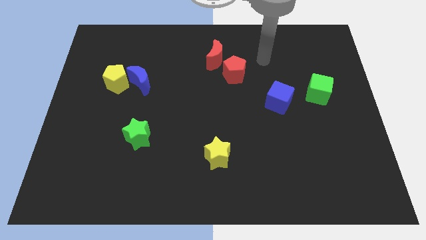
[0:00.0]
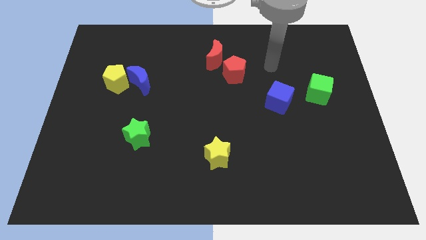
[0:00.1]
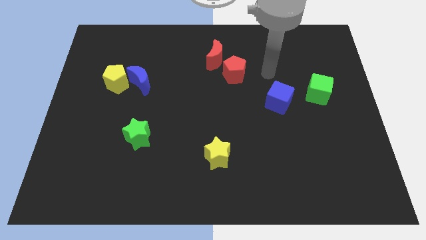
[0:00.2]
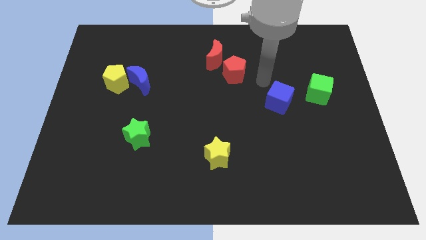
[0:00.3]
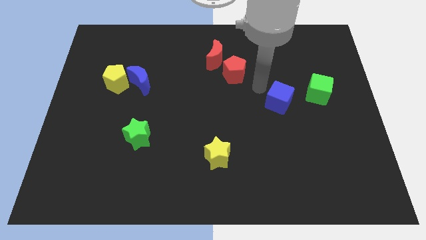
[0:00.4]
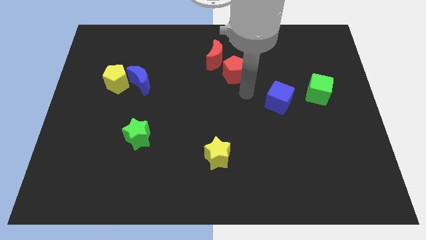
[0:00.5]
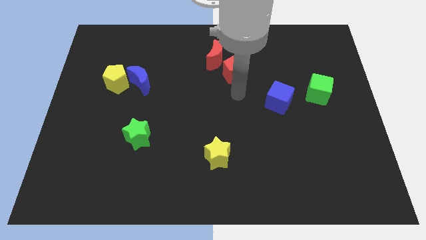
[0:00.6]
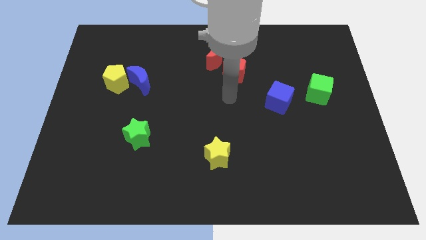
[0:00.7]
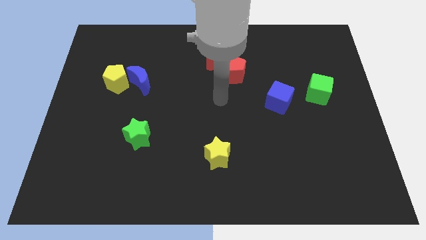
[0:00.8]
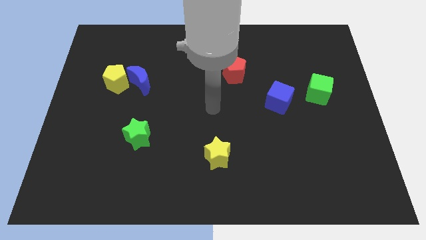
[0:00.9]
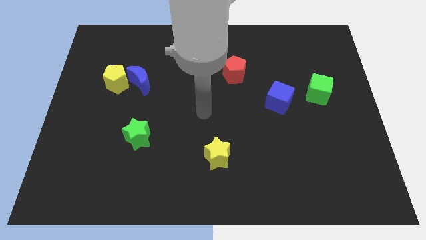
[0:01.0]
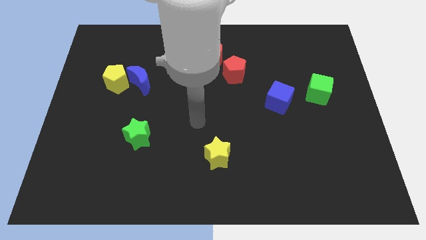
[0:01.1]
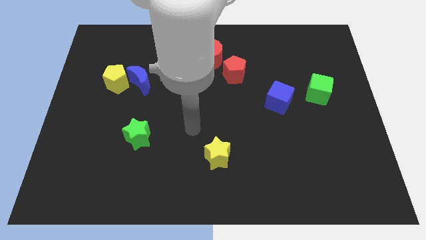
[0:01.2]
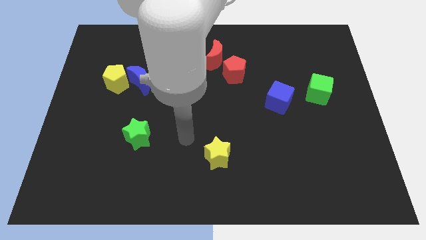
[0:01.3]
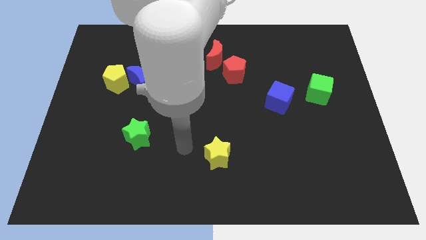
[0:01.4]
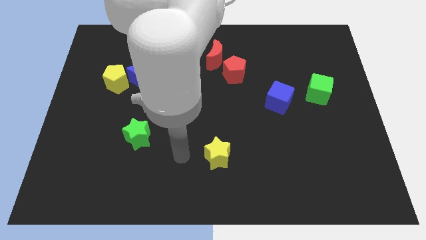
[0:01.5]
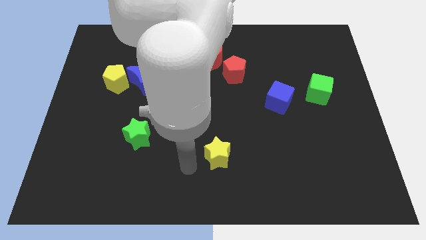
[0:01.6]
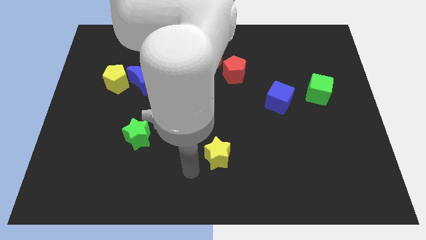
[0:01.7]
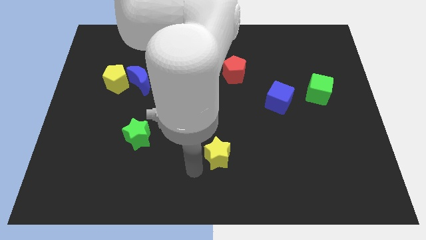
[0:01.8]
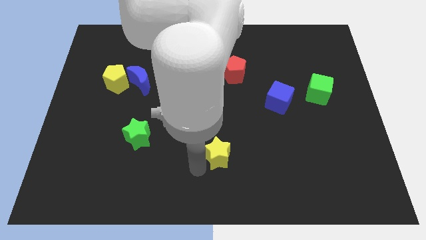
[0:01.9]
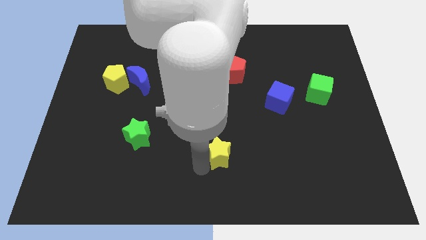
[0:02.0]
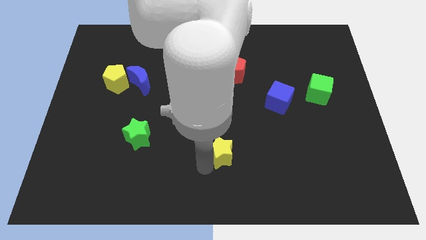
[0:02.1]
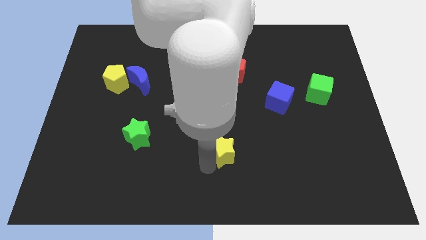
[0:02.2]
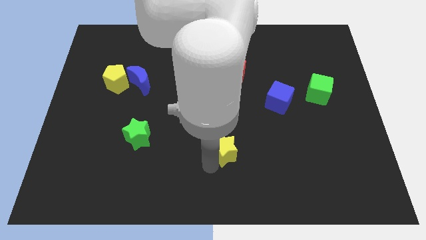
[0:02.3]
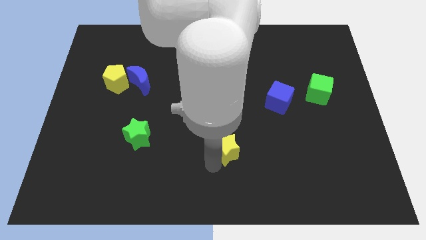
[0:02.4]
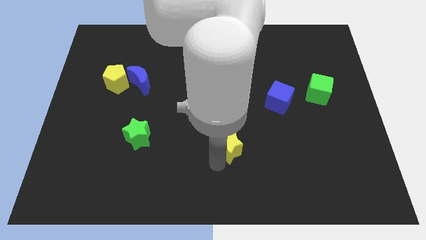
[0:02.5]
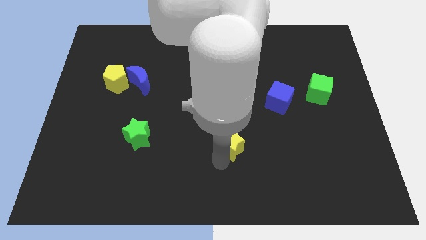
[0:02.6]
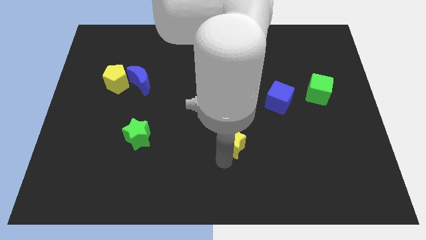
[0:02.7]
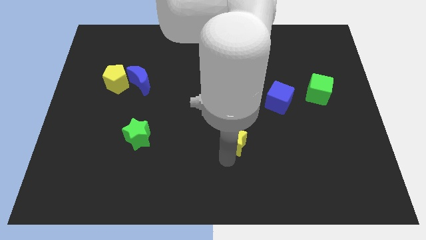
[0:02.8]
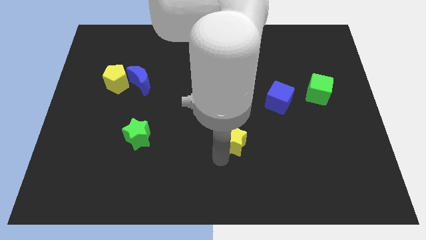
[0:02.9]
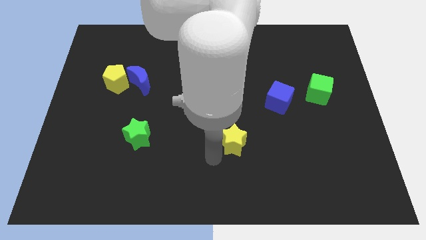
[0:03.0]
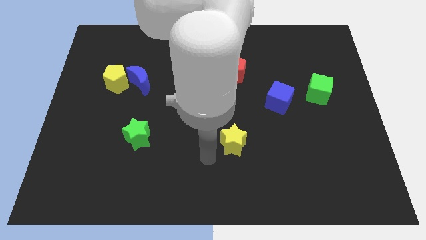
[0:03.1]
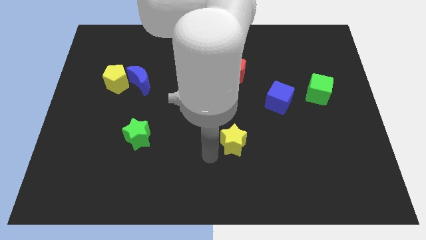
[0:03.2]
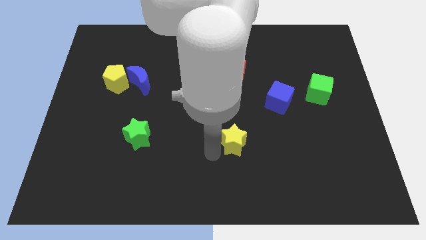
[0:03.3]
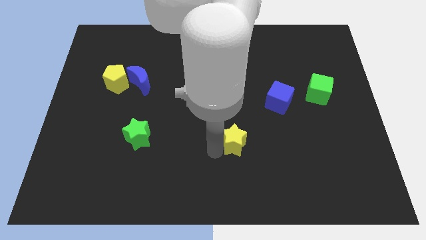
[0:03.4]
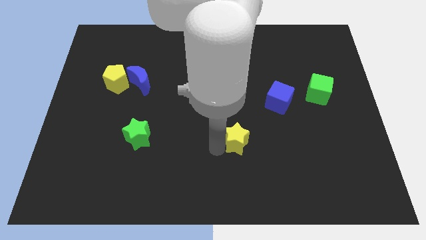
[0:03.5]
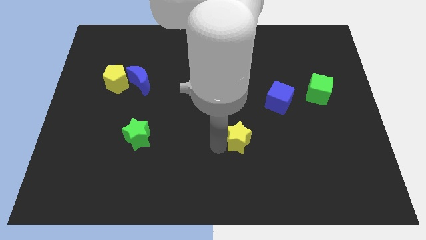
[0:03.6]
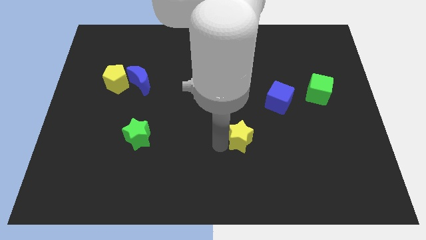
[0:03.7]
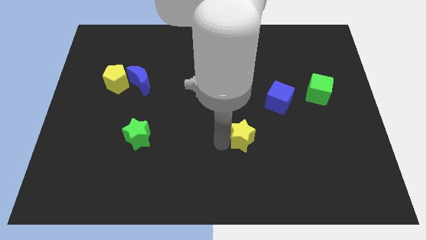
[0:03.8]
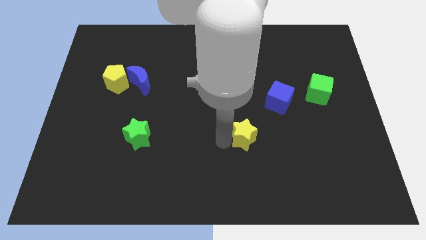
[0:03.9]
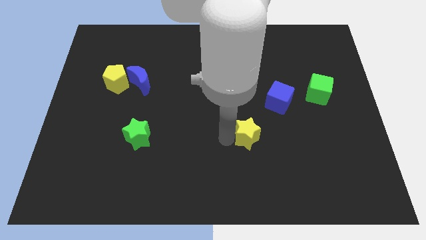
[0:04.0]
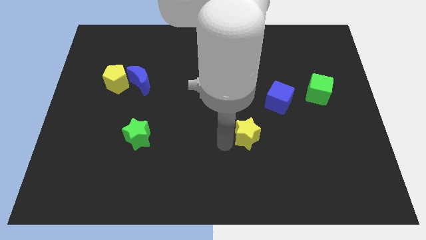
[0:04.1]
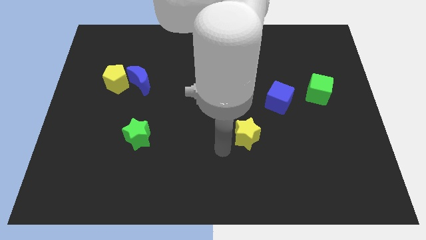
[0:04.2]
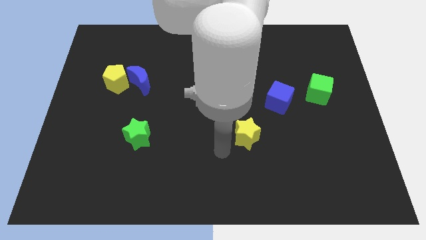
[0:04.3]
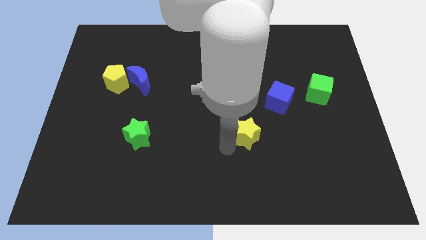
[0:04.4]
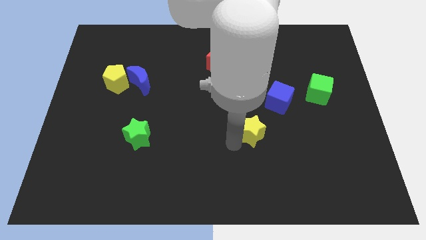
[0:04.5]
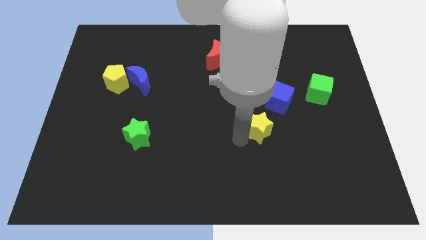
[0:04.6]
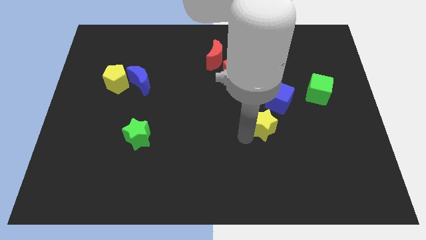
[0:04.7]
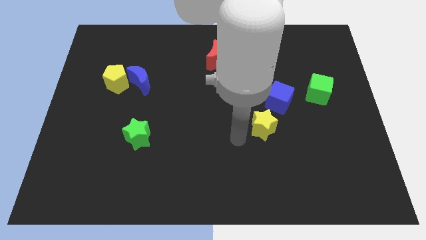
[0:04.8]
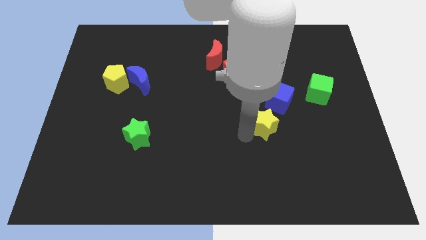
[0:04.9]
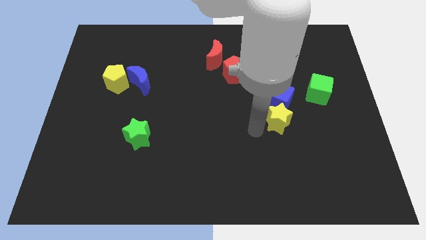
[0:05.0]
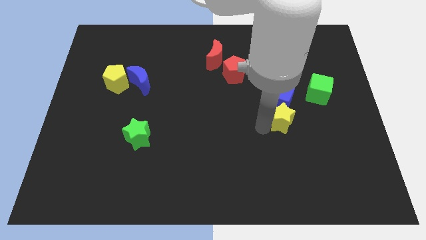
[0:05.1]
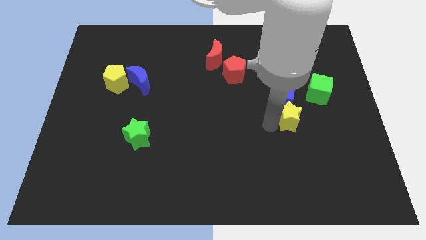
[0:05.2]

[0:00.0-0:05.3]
put the yellow star to the bottom left of the green cube

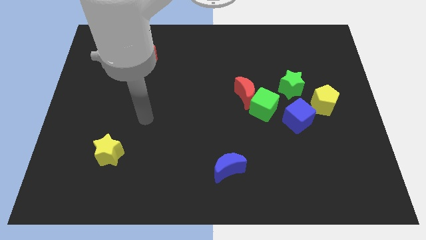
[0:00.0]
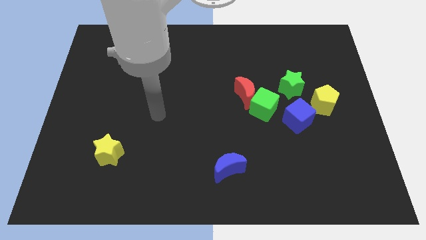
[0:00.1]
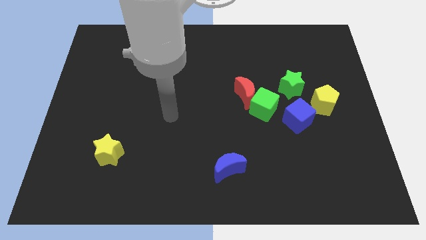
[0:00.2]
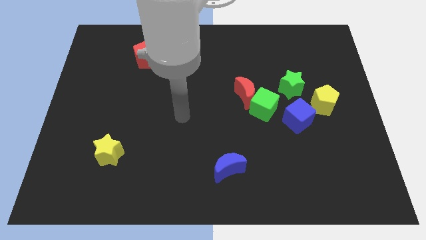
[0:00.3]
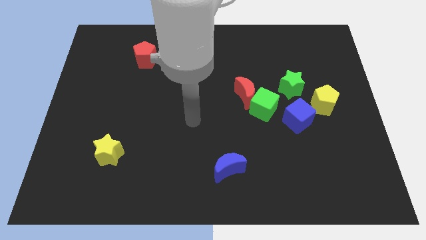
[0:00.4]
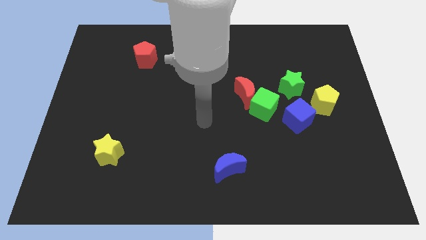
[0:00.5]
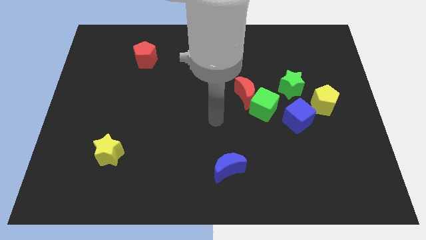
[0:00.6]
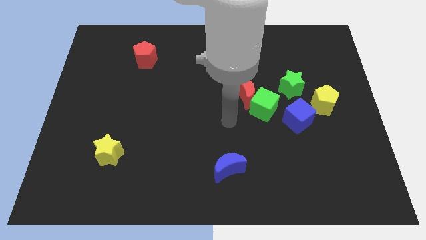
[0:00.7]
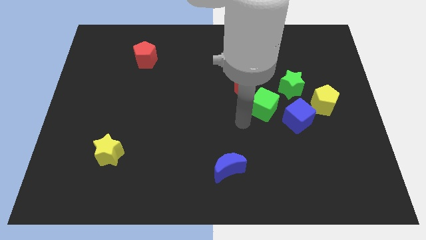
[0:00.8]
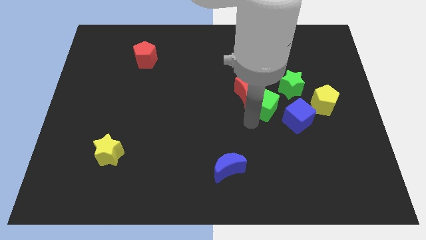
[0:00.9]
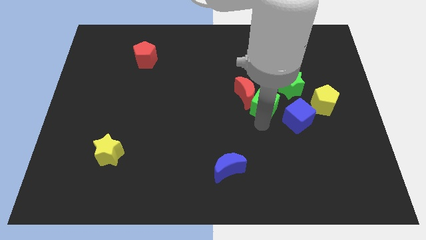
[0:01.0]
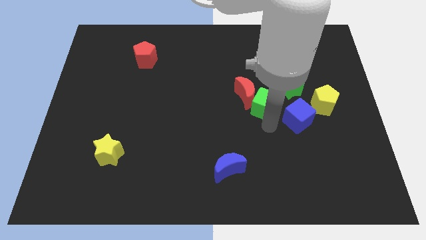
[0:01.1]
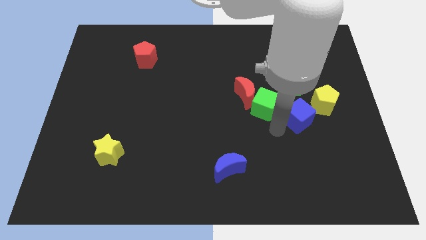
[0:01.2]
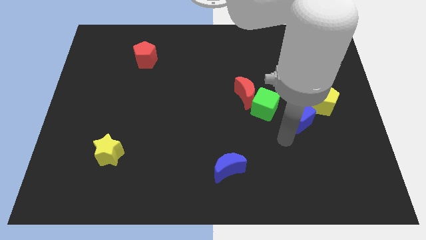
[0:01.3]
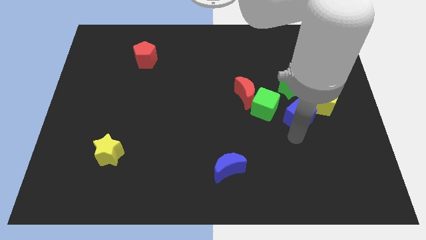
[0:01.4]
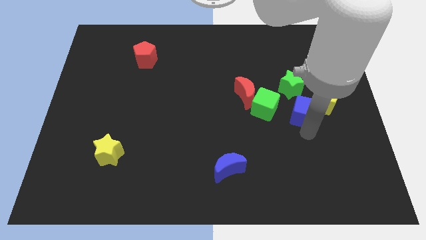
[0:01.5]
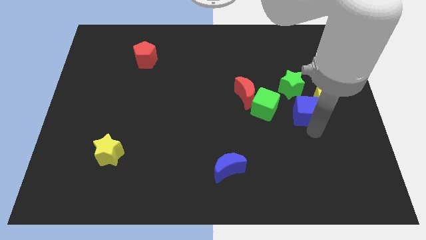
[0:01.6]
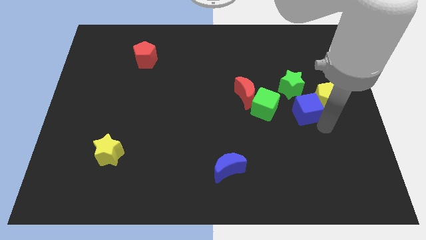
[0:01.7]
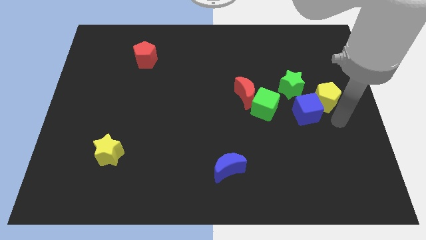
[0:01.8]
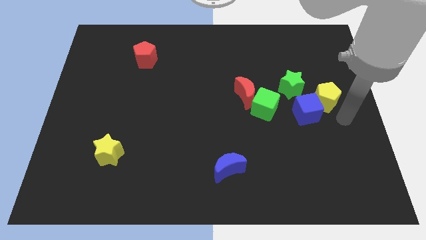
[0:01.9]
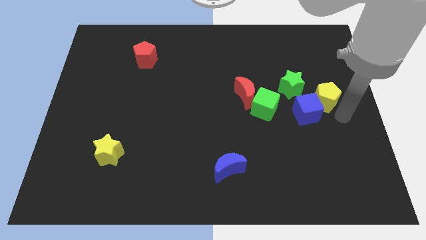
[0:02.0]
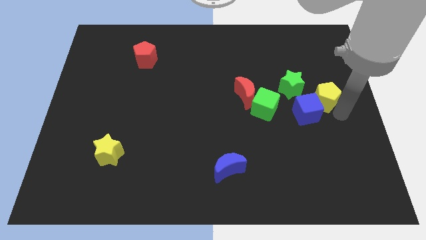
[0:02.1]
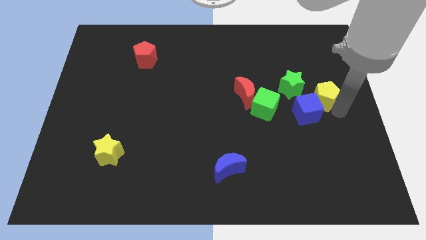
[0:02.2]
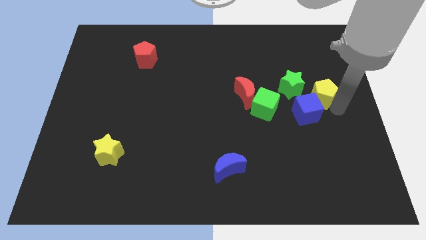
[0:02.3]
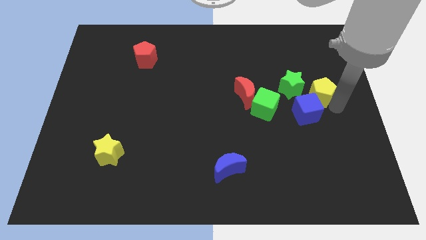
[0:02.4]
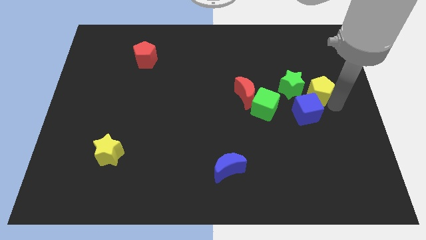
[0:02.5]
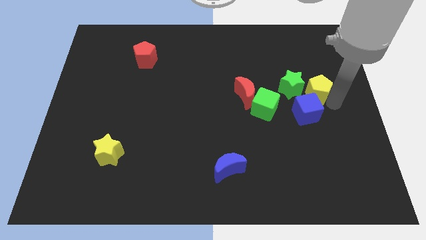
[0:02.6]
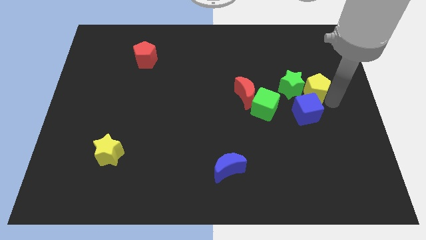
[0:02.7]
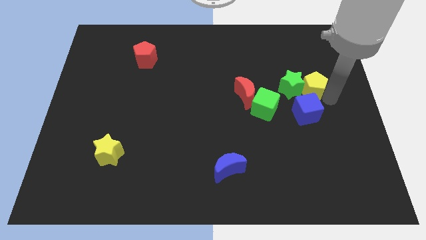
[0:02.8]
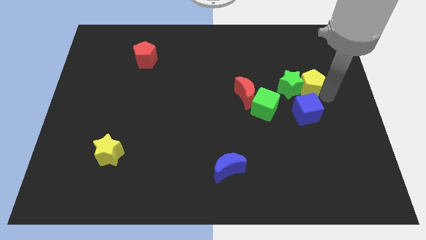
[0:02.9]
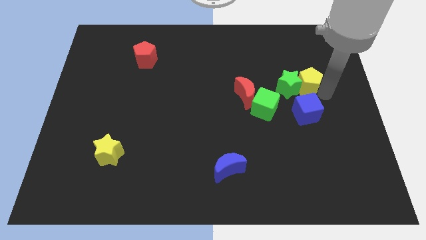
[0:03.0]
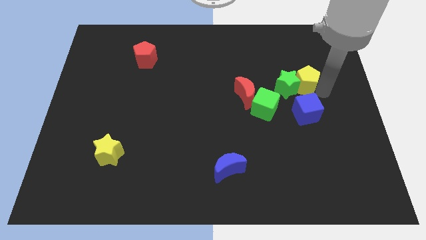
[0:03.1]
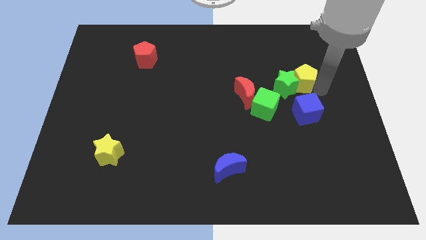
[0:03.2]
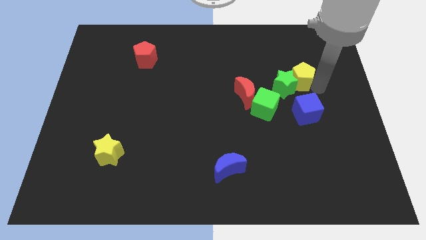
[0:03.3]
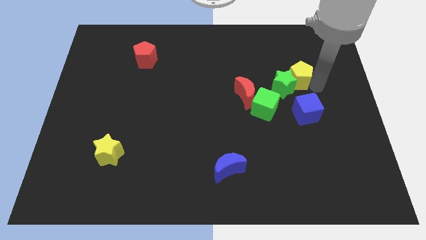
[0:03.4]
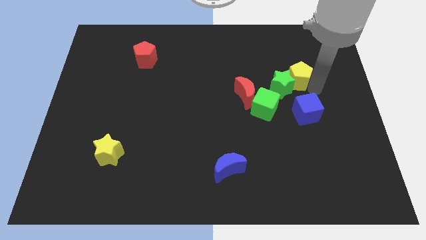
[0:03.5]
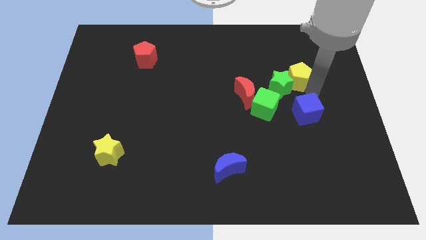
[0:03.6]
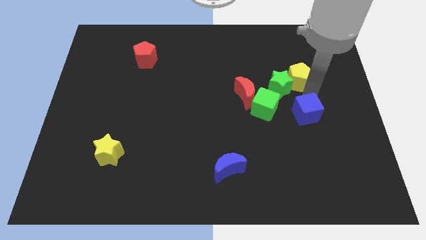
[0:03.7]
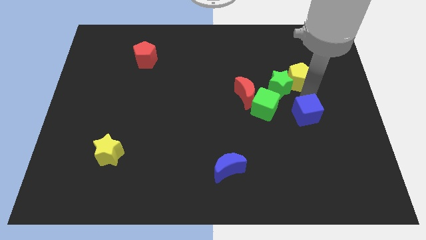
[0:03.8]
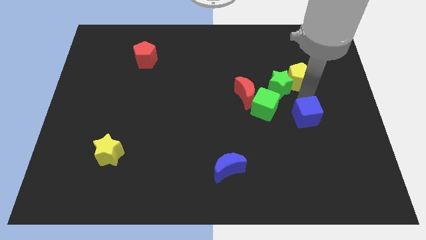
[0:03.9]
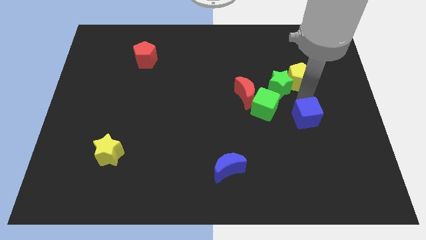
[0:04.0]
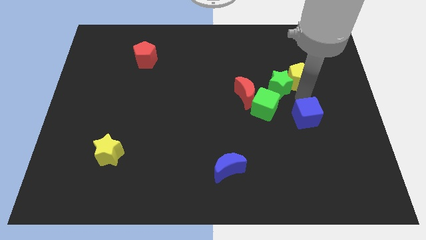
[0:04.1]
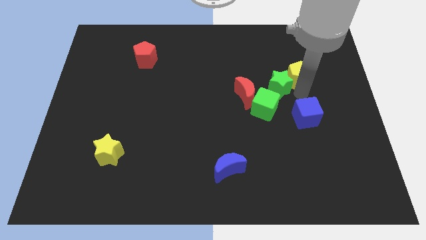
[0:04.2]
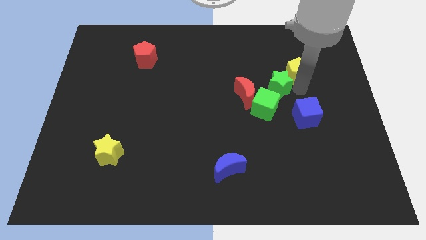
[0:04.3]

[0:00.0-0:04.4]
put the yellow pentagon to the top side of the green star
